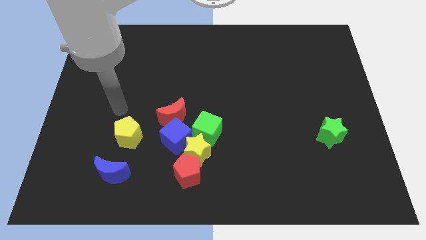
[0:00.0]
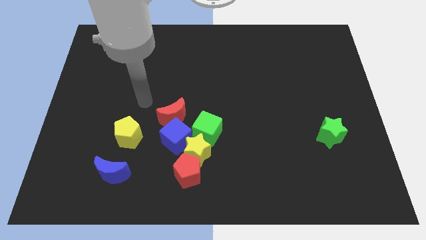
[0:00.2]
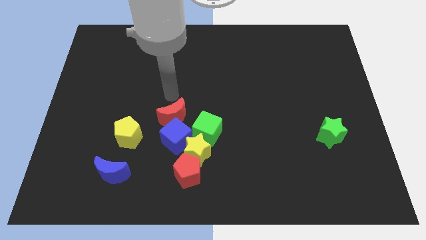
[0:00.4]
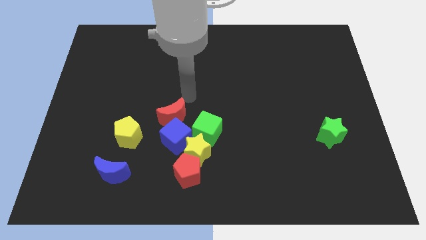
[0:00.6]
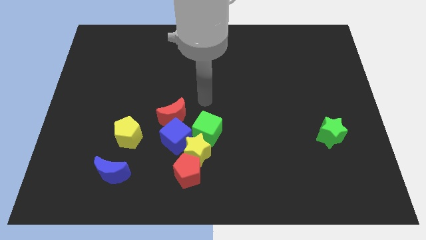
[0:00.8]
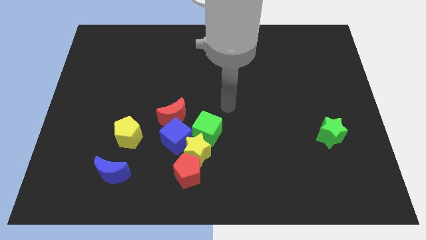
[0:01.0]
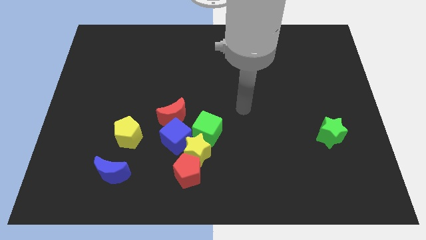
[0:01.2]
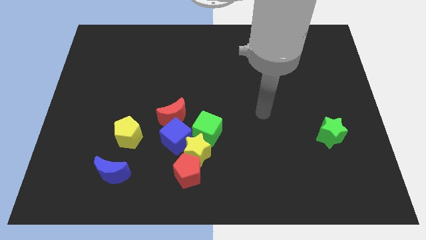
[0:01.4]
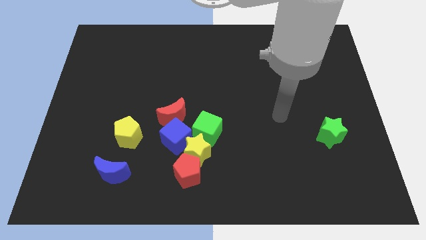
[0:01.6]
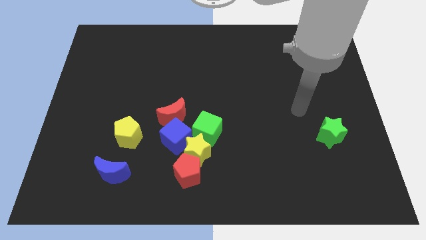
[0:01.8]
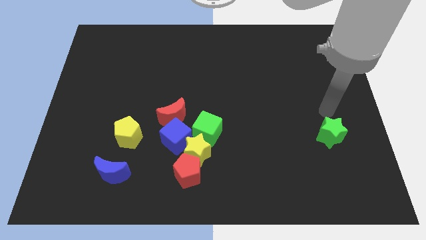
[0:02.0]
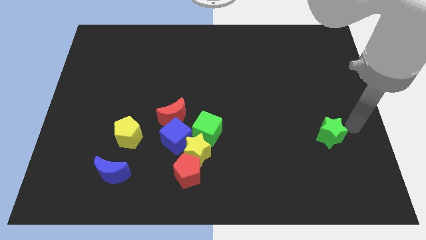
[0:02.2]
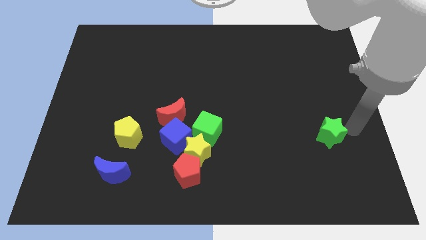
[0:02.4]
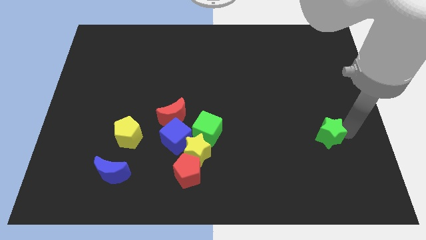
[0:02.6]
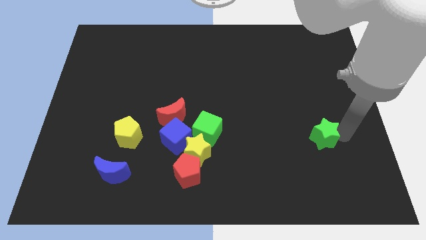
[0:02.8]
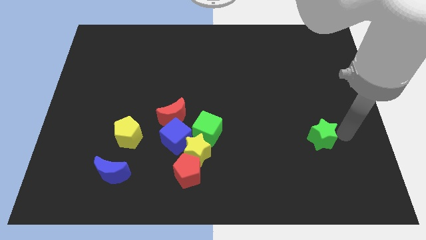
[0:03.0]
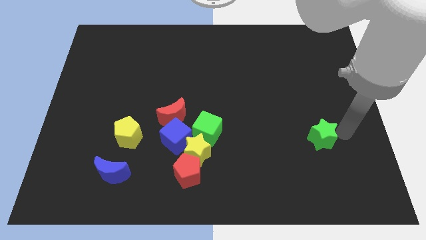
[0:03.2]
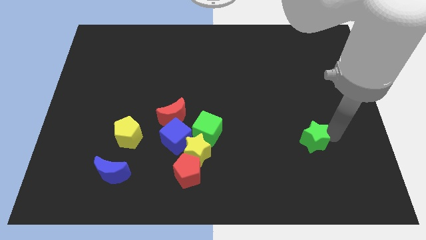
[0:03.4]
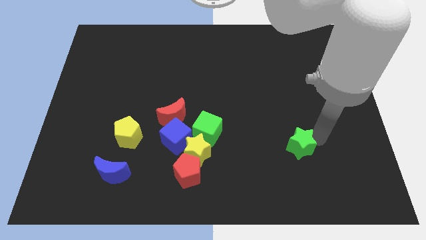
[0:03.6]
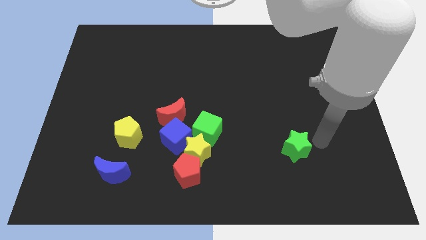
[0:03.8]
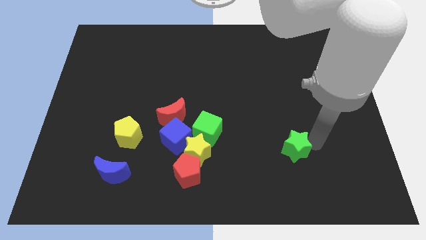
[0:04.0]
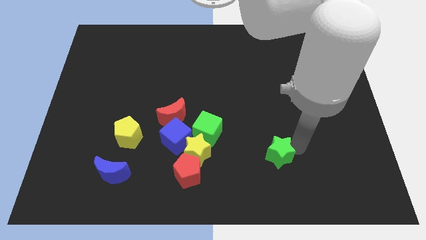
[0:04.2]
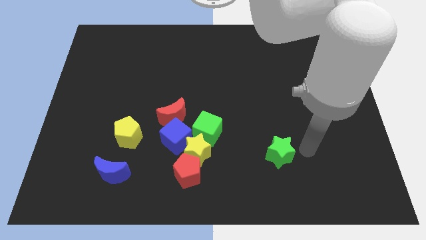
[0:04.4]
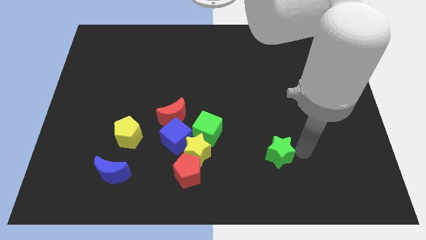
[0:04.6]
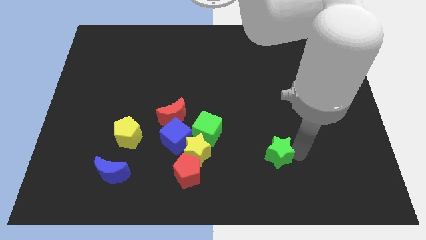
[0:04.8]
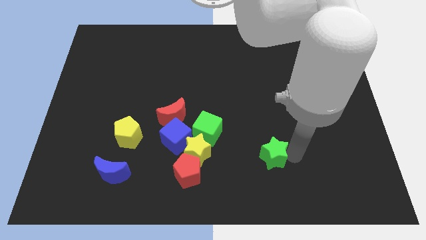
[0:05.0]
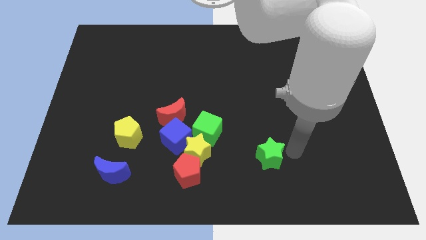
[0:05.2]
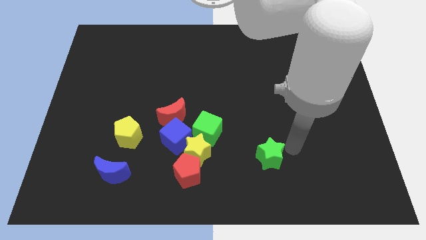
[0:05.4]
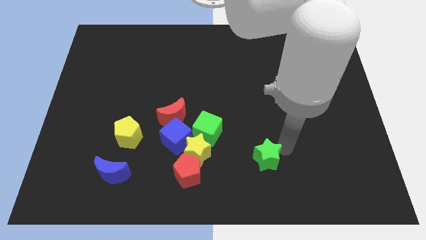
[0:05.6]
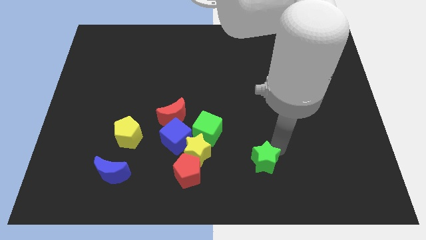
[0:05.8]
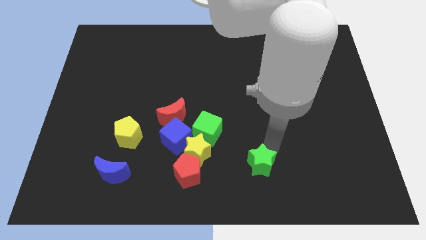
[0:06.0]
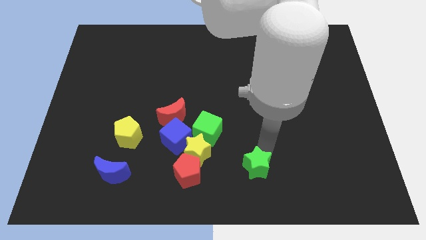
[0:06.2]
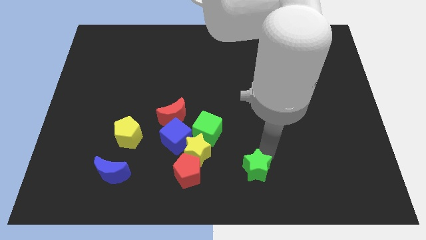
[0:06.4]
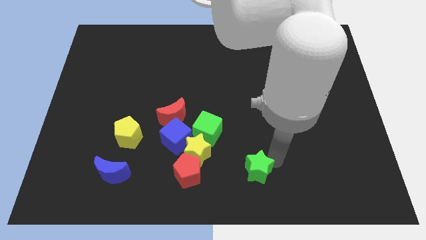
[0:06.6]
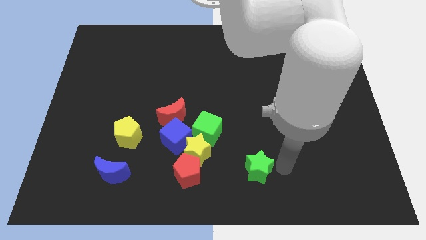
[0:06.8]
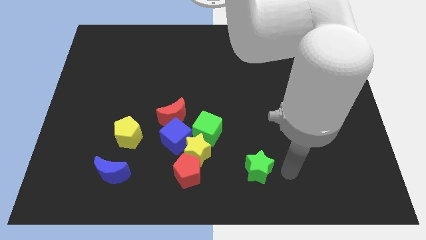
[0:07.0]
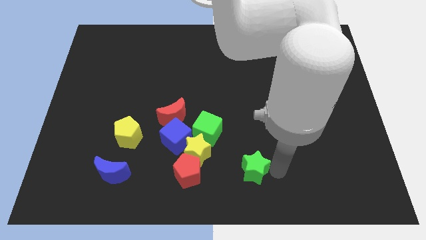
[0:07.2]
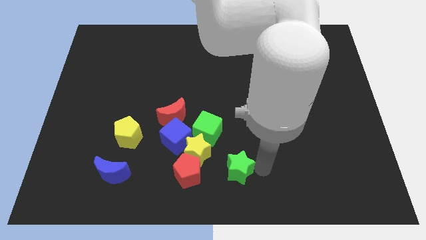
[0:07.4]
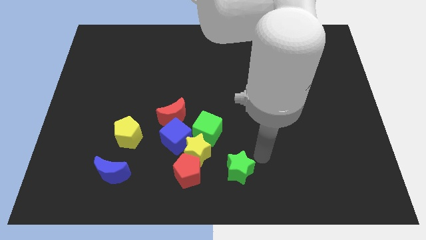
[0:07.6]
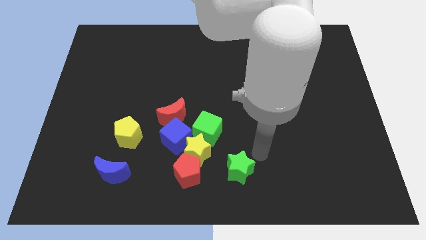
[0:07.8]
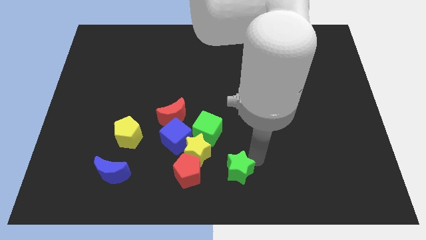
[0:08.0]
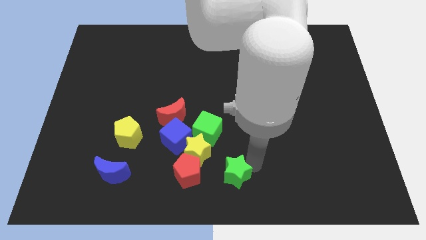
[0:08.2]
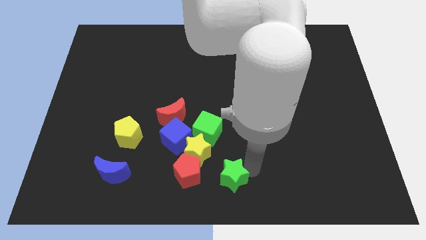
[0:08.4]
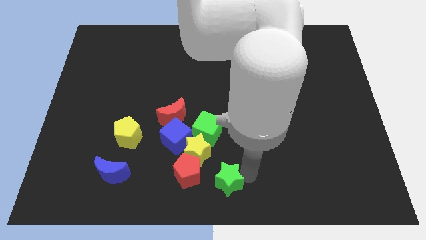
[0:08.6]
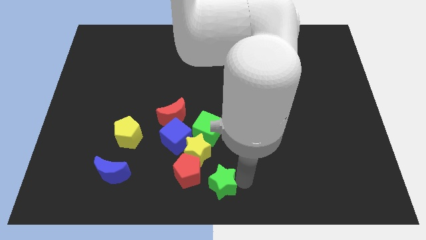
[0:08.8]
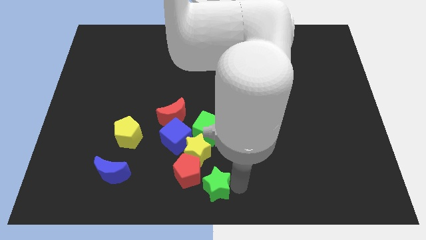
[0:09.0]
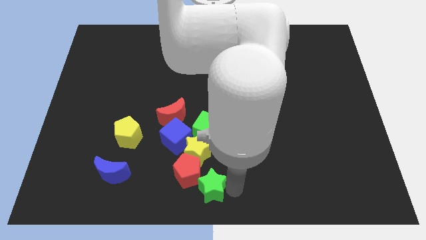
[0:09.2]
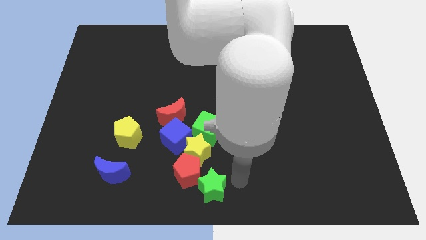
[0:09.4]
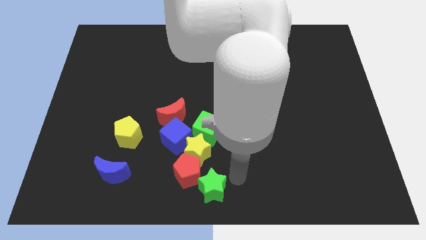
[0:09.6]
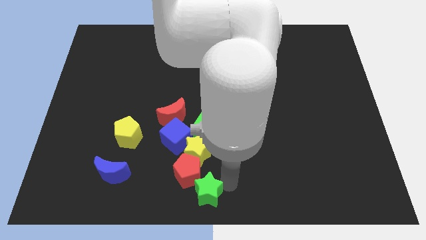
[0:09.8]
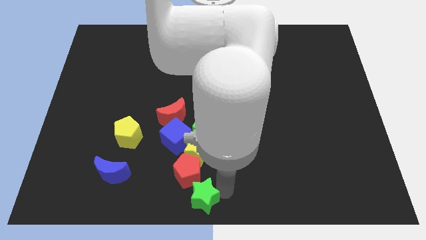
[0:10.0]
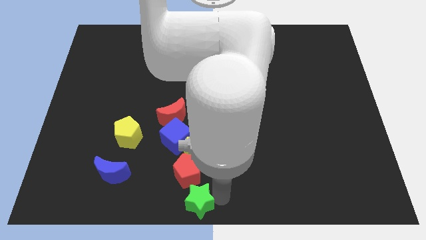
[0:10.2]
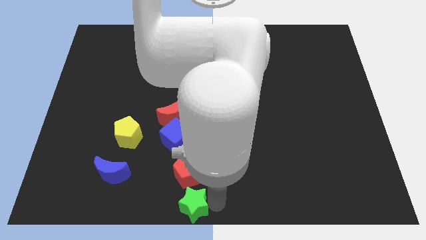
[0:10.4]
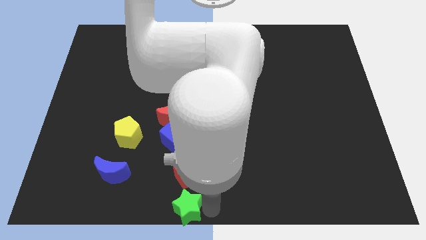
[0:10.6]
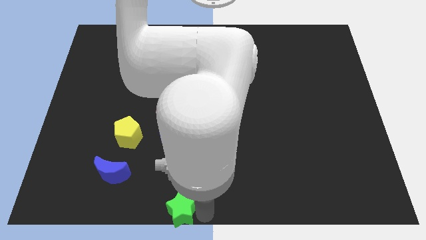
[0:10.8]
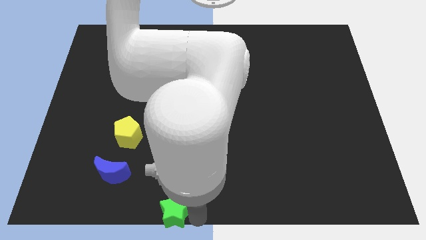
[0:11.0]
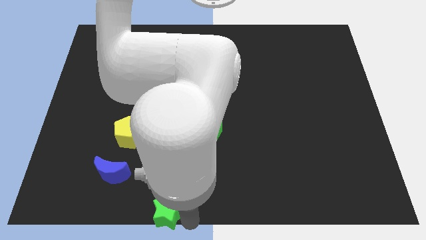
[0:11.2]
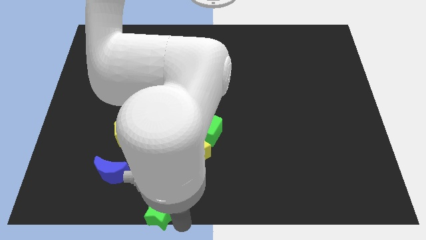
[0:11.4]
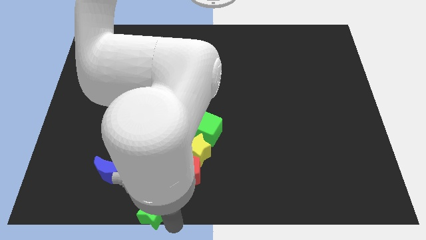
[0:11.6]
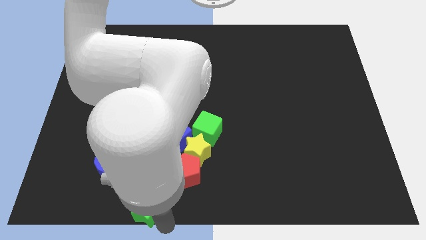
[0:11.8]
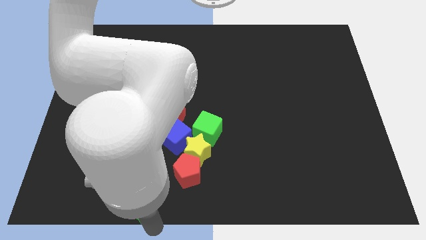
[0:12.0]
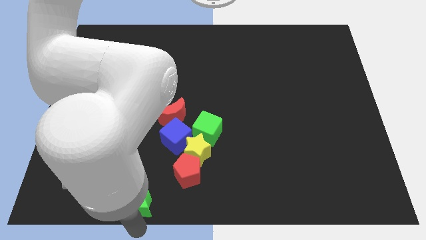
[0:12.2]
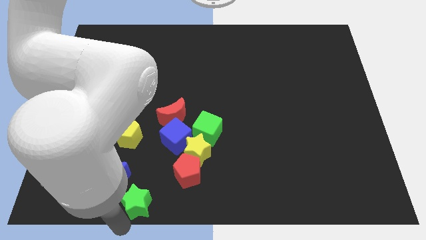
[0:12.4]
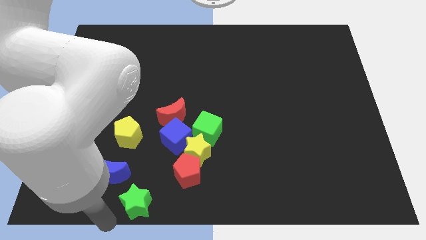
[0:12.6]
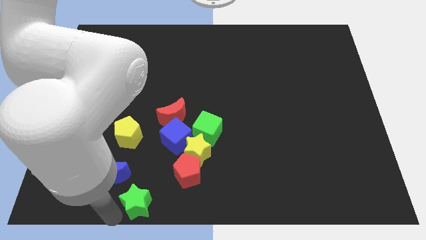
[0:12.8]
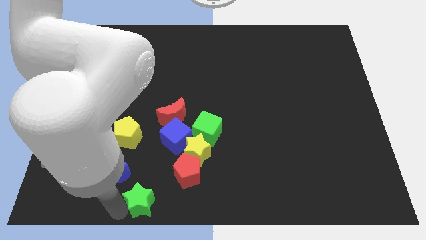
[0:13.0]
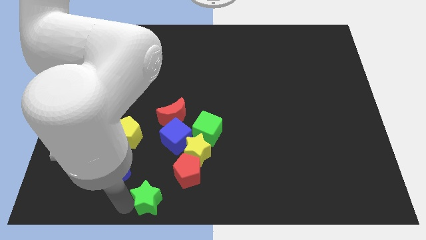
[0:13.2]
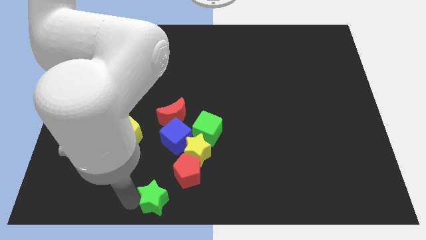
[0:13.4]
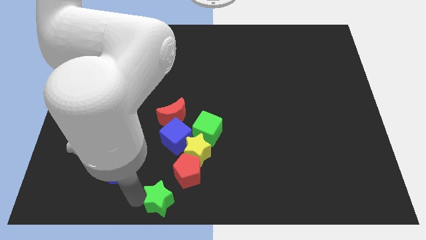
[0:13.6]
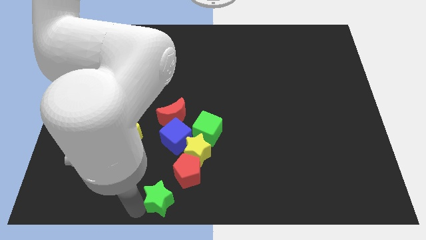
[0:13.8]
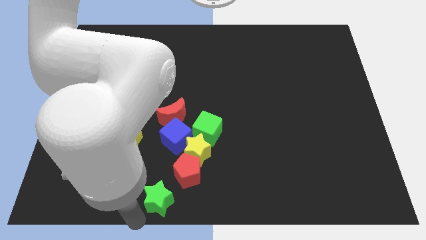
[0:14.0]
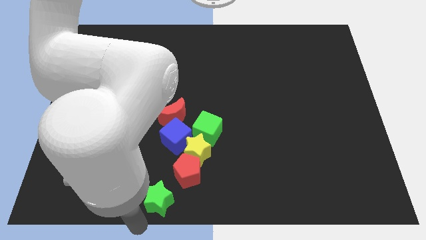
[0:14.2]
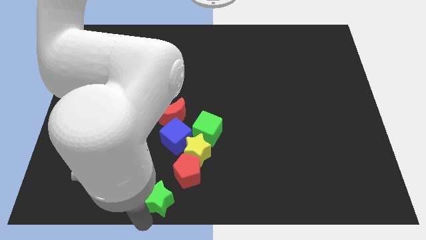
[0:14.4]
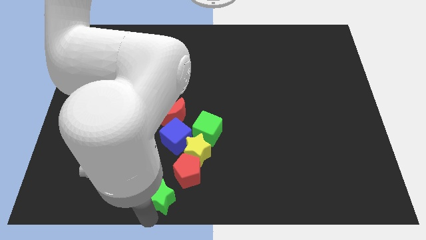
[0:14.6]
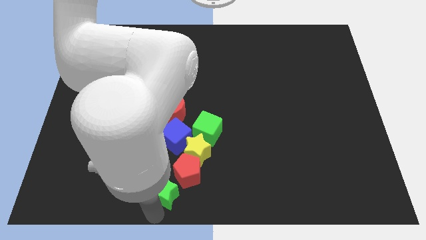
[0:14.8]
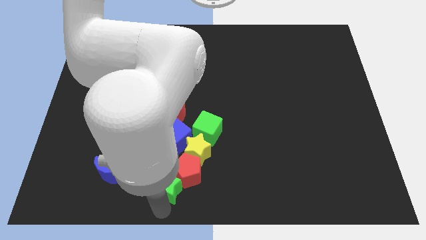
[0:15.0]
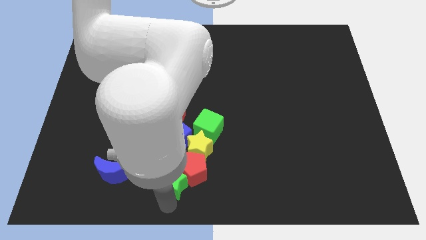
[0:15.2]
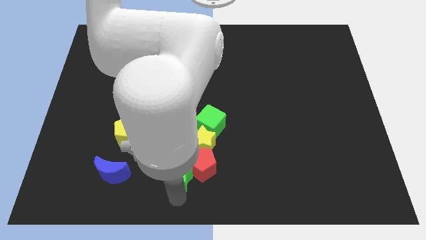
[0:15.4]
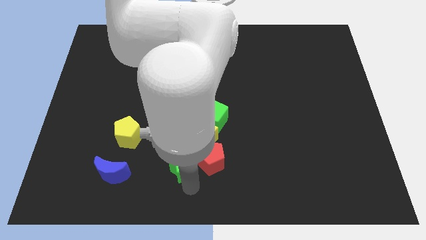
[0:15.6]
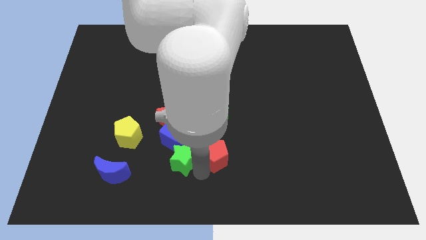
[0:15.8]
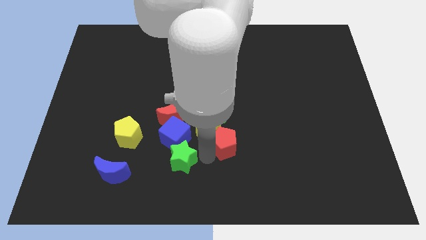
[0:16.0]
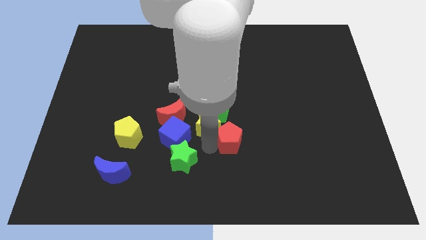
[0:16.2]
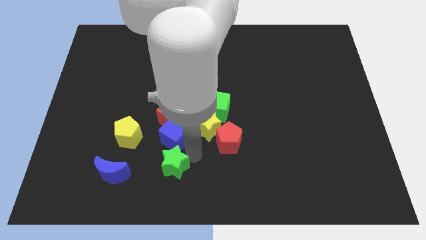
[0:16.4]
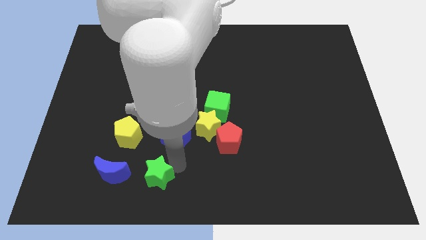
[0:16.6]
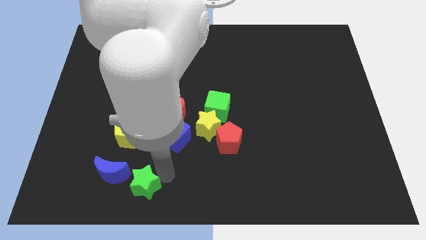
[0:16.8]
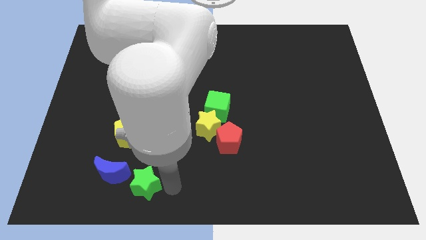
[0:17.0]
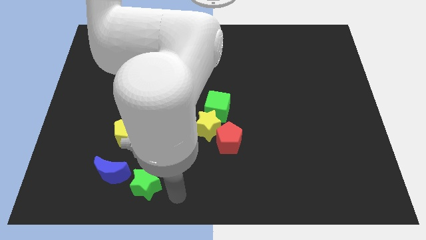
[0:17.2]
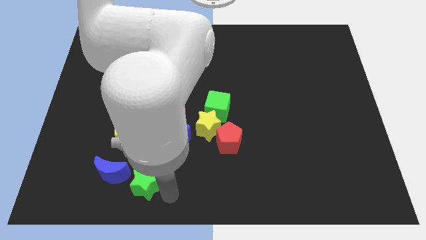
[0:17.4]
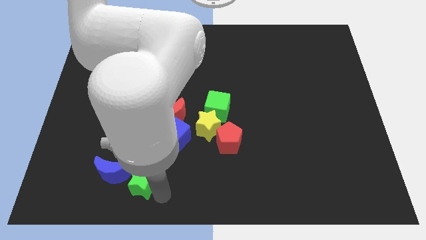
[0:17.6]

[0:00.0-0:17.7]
move the green star below the yellow pentagon
